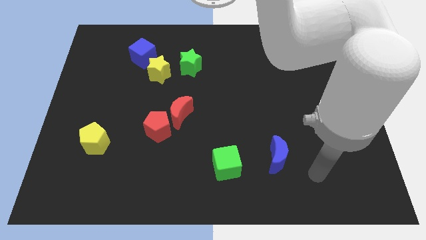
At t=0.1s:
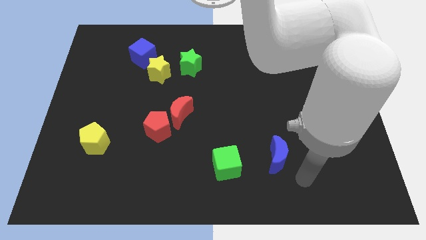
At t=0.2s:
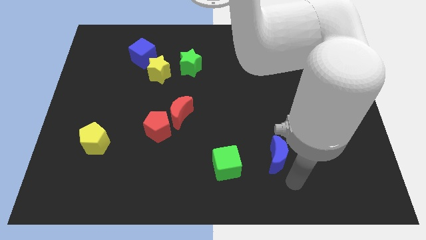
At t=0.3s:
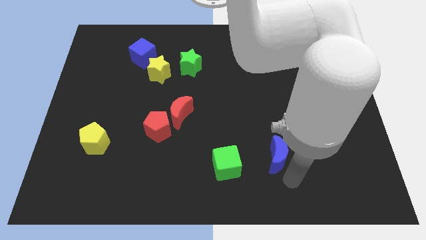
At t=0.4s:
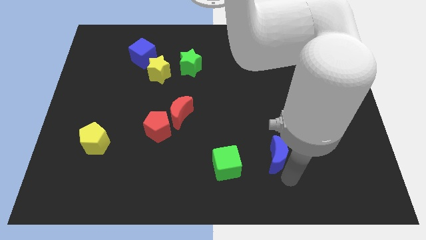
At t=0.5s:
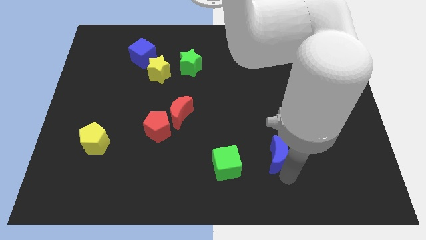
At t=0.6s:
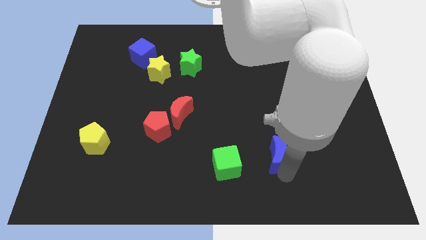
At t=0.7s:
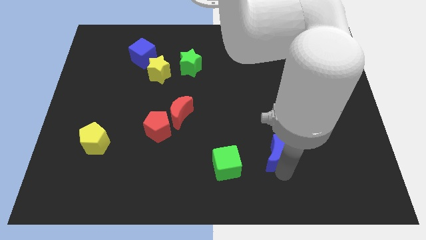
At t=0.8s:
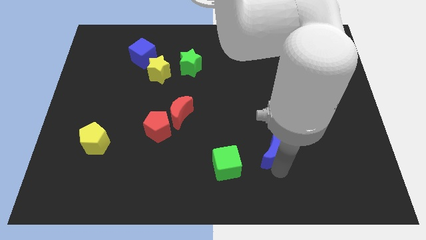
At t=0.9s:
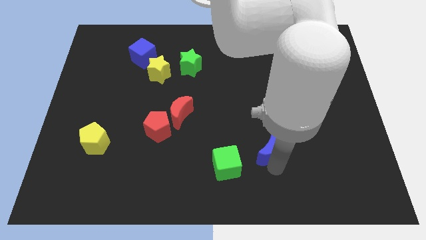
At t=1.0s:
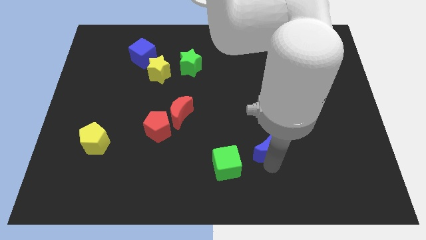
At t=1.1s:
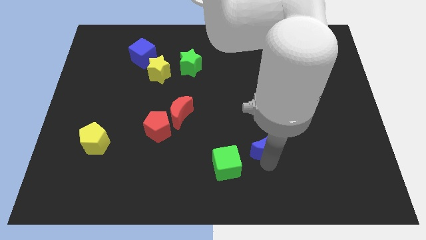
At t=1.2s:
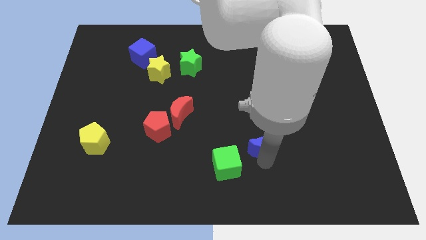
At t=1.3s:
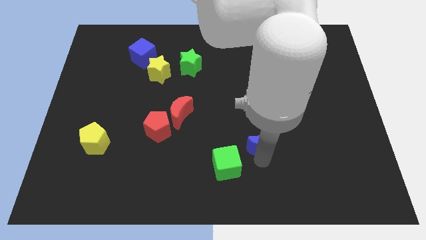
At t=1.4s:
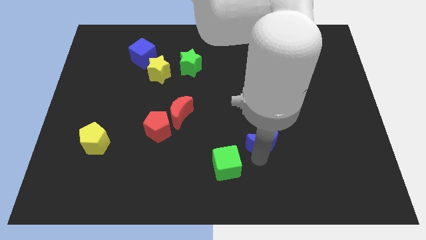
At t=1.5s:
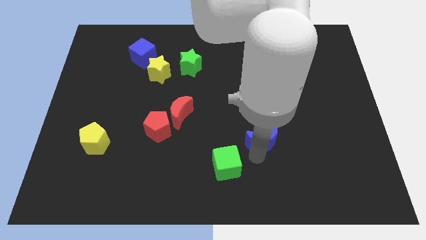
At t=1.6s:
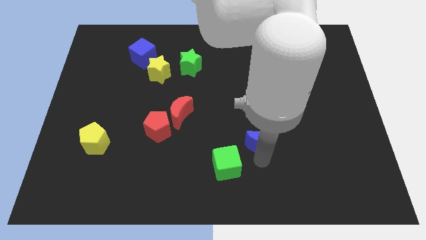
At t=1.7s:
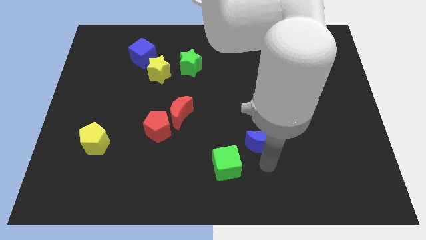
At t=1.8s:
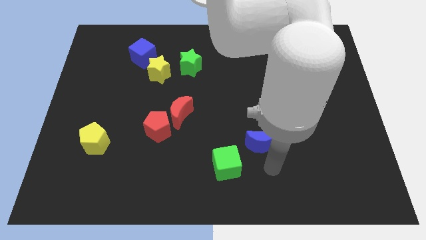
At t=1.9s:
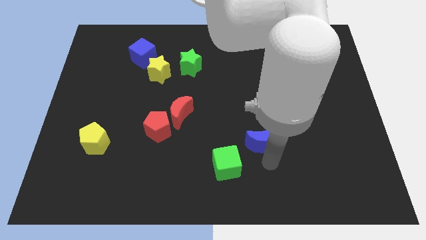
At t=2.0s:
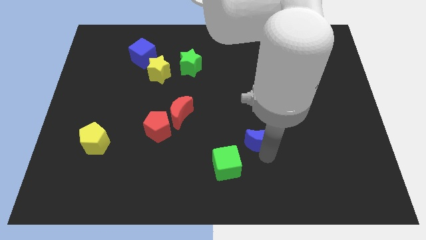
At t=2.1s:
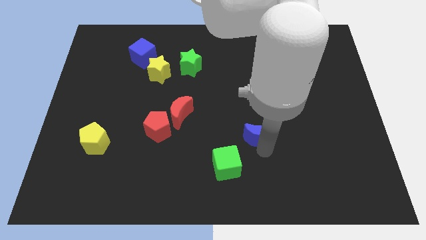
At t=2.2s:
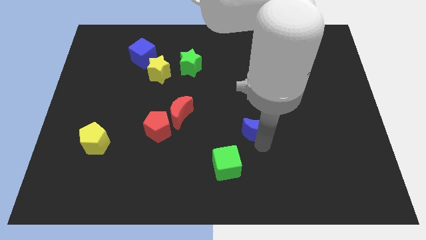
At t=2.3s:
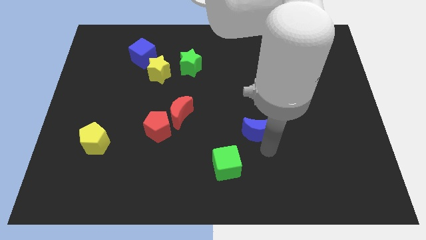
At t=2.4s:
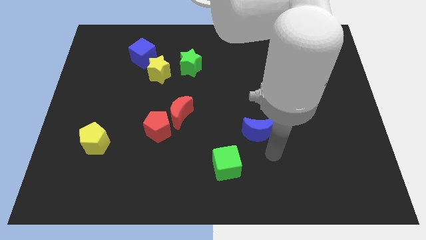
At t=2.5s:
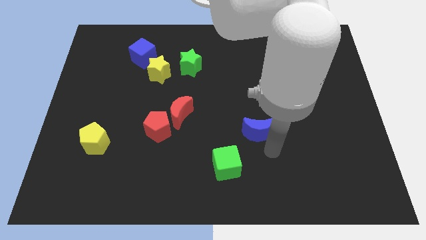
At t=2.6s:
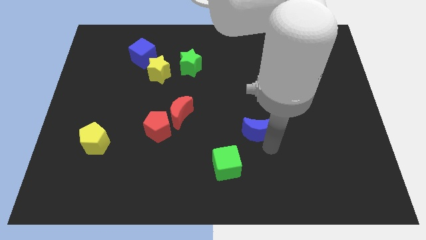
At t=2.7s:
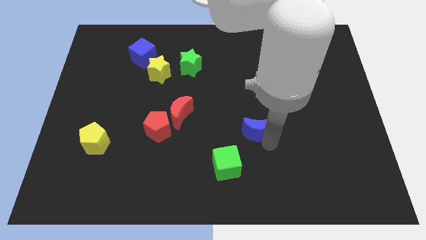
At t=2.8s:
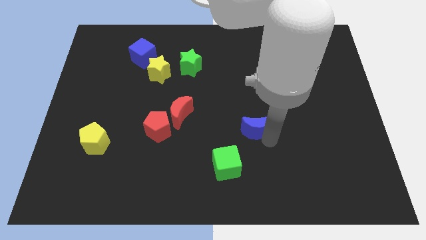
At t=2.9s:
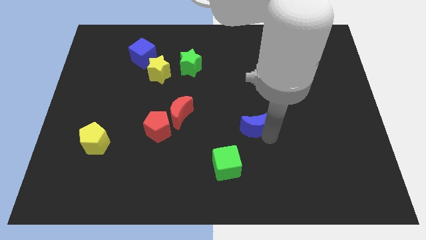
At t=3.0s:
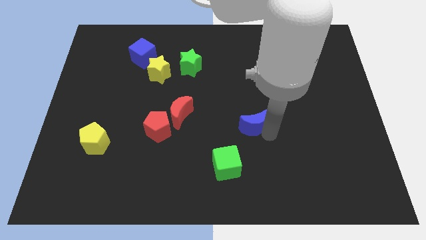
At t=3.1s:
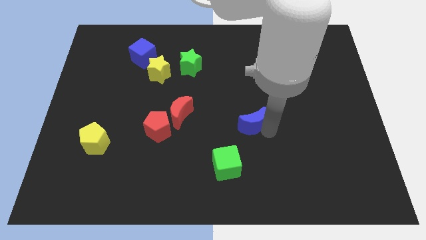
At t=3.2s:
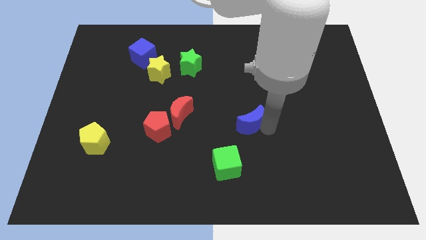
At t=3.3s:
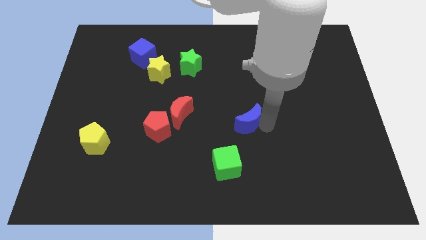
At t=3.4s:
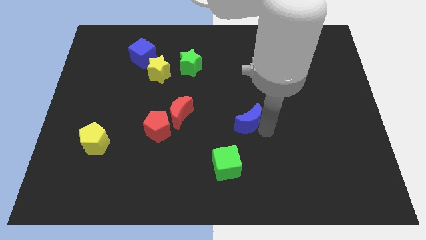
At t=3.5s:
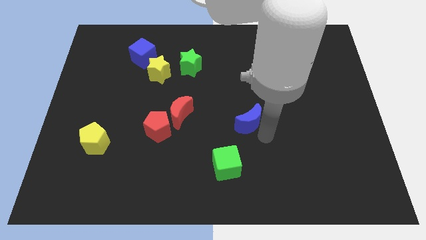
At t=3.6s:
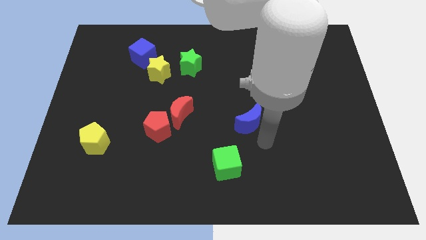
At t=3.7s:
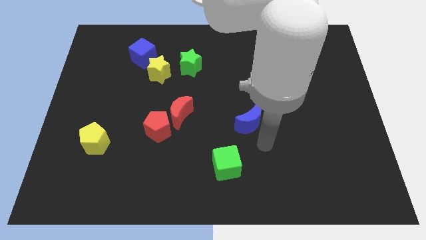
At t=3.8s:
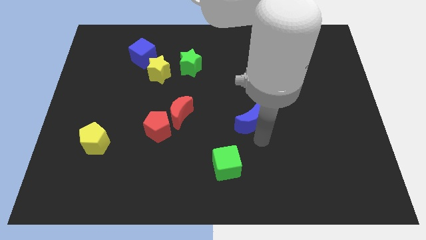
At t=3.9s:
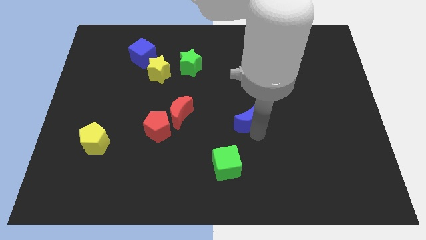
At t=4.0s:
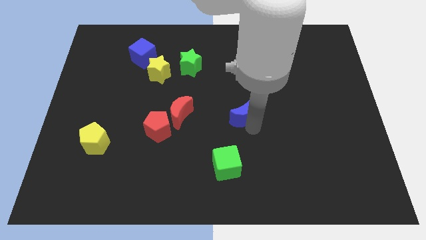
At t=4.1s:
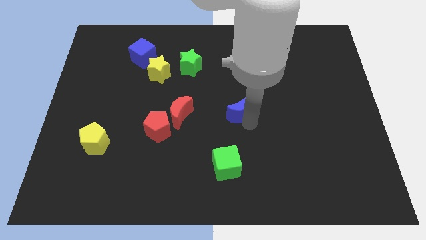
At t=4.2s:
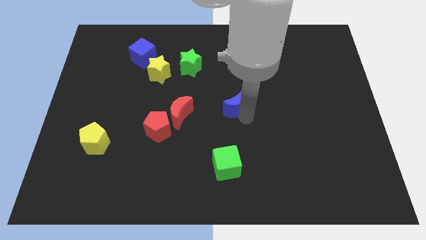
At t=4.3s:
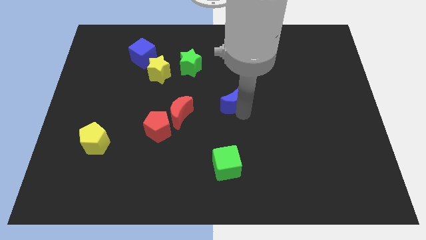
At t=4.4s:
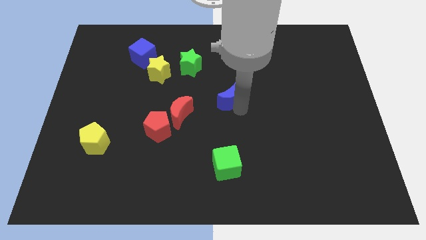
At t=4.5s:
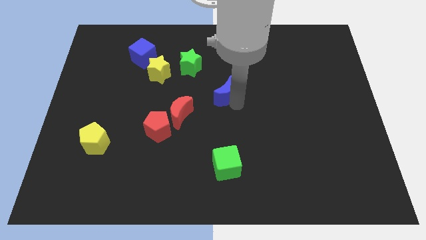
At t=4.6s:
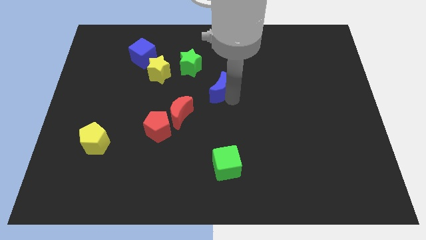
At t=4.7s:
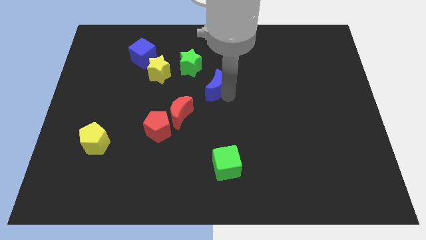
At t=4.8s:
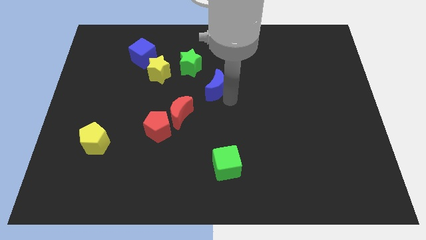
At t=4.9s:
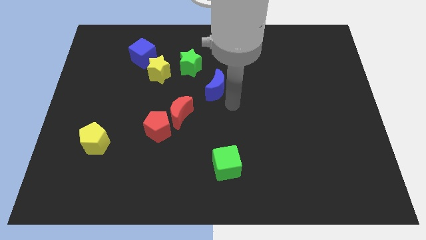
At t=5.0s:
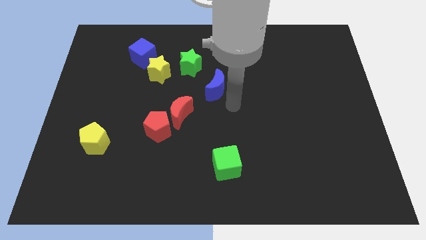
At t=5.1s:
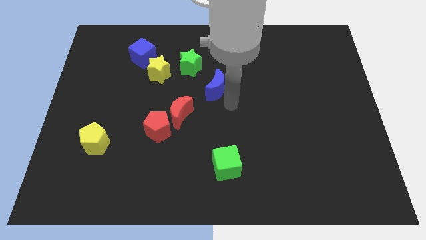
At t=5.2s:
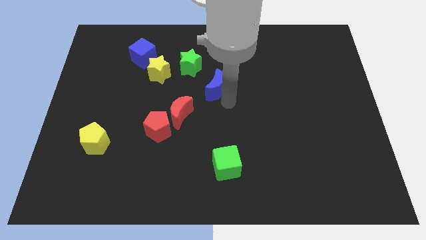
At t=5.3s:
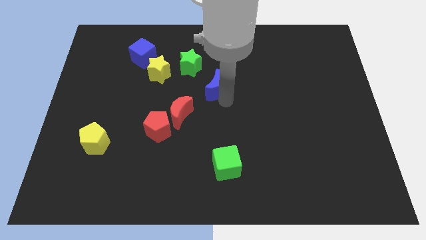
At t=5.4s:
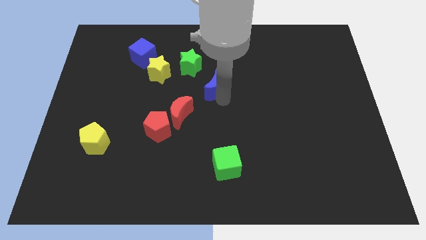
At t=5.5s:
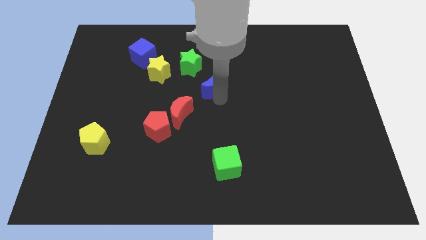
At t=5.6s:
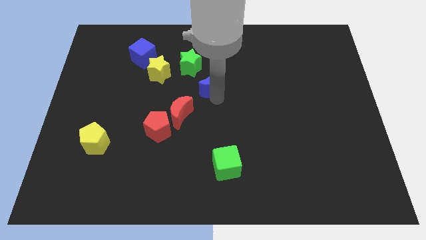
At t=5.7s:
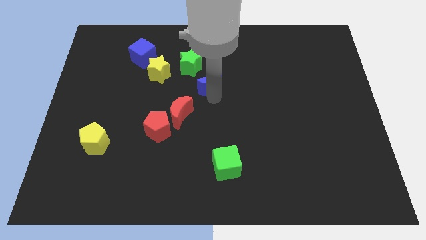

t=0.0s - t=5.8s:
slide the blue moon to the right of the yellow star

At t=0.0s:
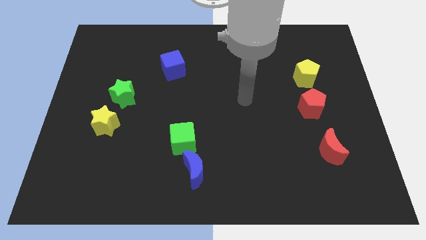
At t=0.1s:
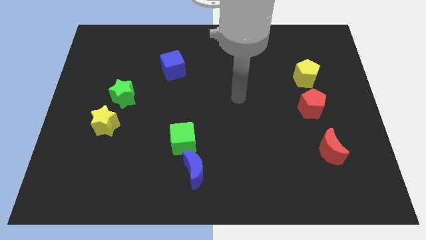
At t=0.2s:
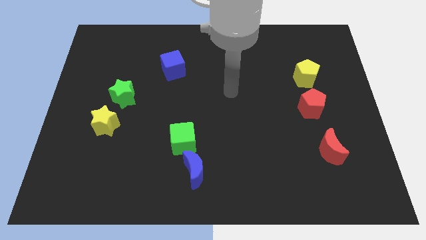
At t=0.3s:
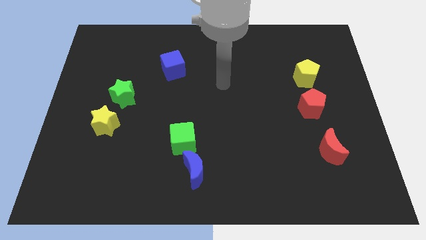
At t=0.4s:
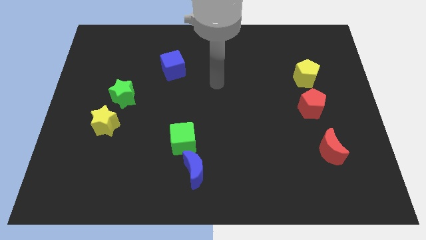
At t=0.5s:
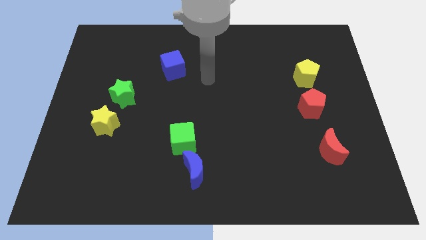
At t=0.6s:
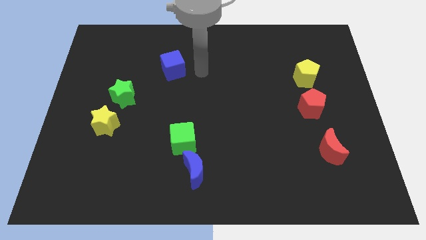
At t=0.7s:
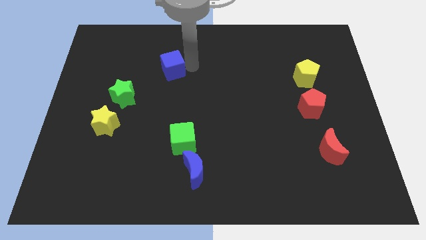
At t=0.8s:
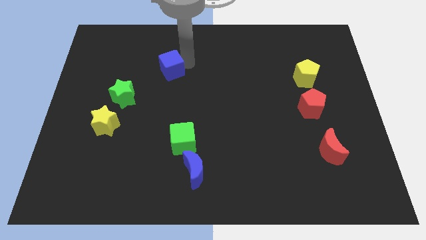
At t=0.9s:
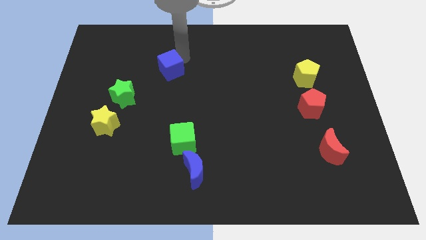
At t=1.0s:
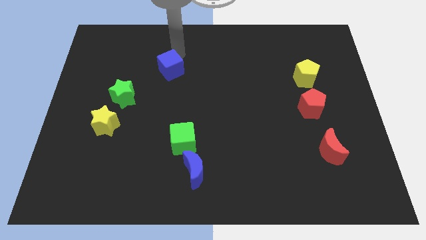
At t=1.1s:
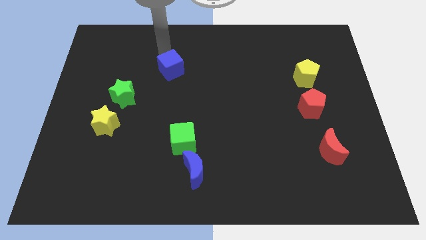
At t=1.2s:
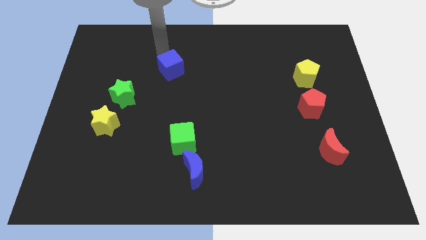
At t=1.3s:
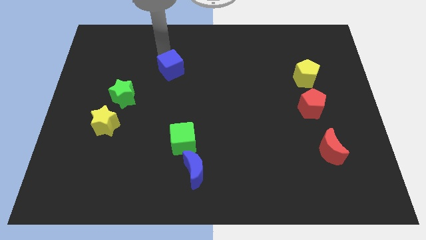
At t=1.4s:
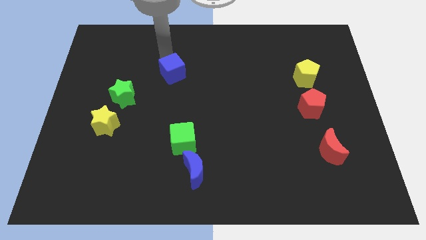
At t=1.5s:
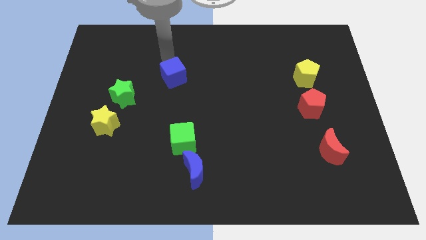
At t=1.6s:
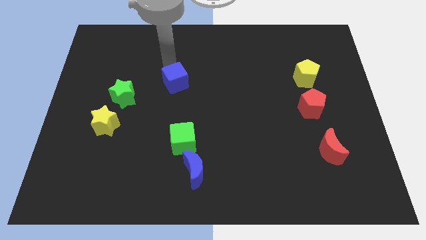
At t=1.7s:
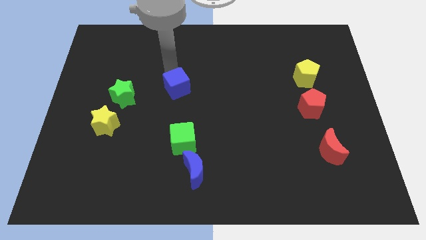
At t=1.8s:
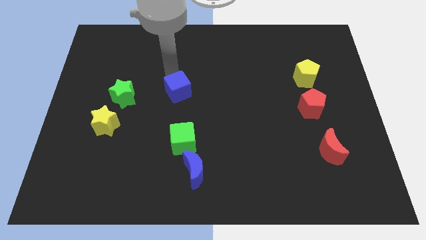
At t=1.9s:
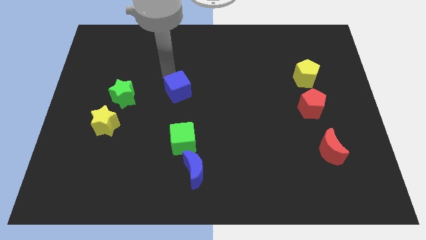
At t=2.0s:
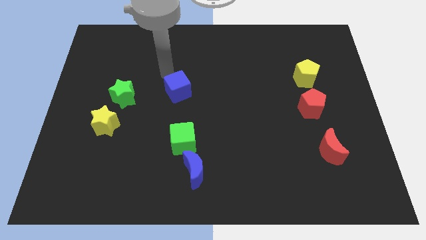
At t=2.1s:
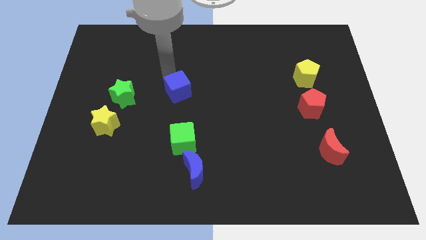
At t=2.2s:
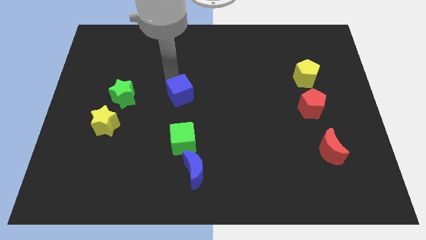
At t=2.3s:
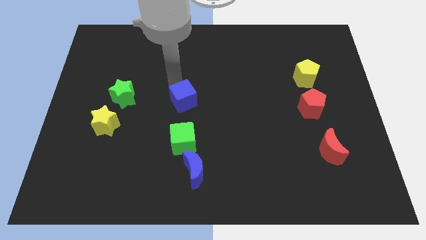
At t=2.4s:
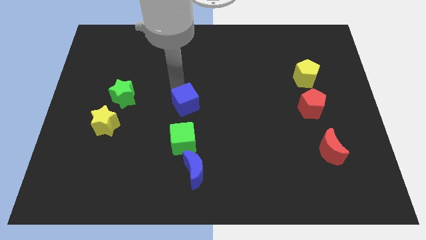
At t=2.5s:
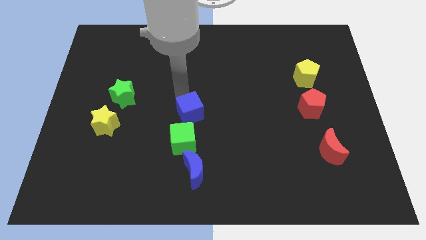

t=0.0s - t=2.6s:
put the blue cube to the top side of the blue moon
